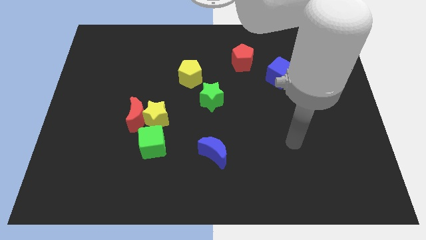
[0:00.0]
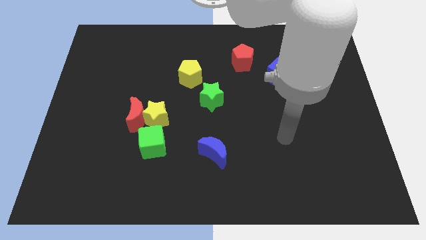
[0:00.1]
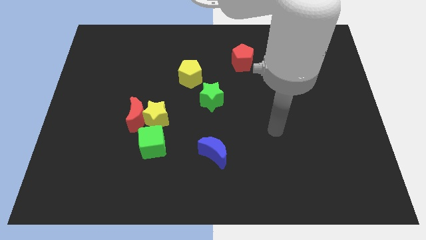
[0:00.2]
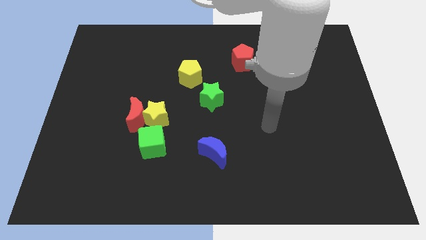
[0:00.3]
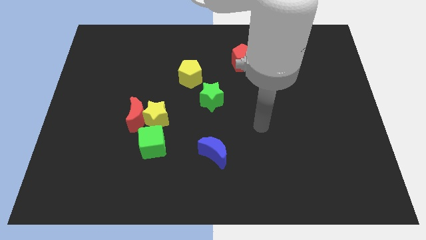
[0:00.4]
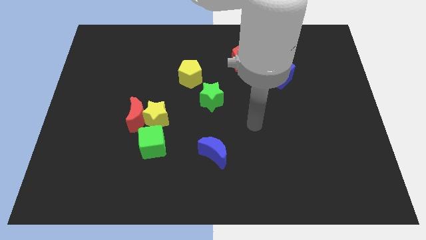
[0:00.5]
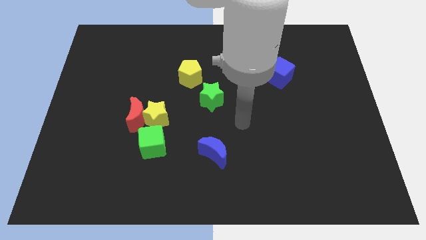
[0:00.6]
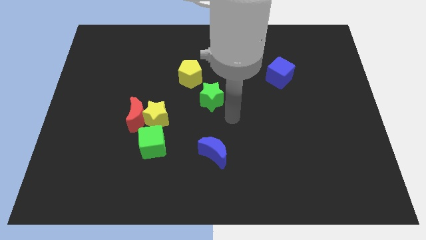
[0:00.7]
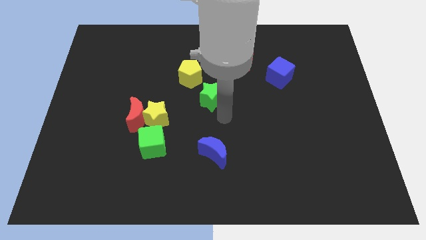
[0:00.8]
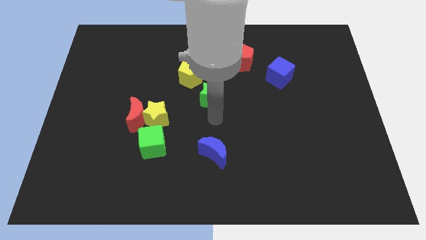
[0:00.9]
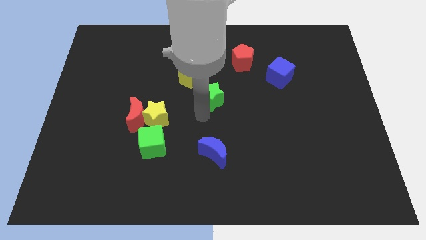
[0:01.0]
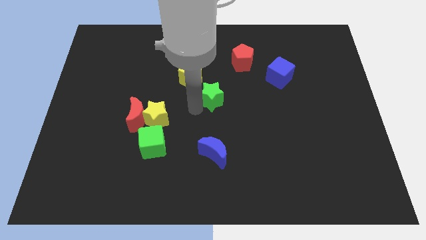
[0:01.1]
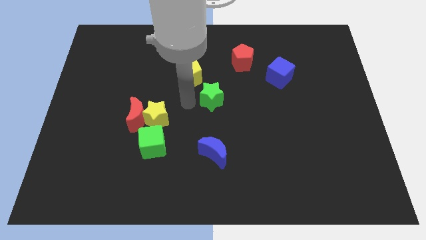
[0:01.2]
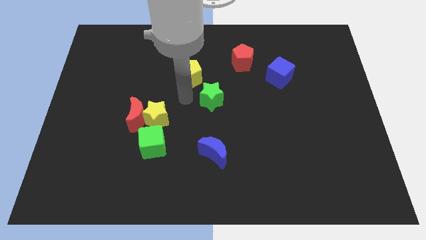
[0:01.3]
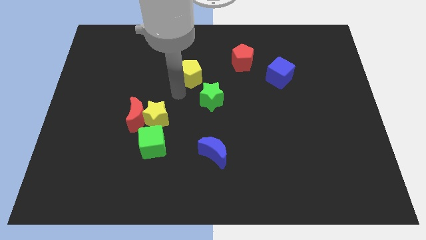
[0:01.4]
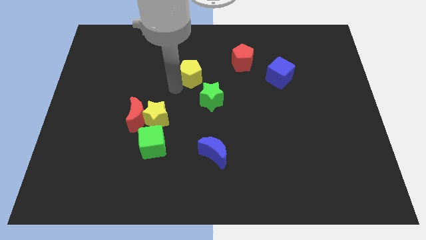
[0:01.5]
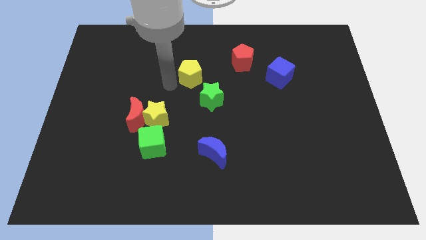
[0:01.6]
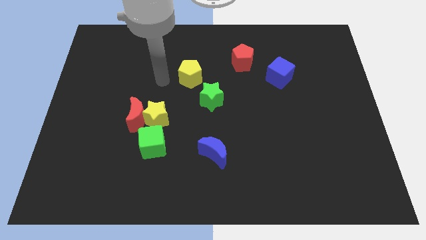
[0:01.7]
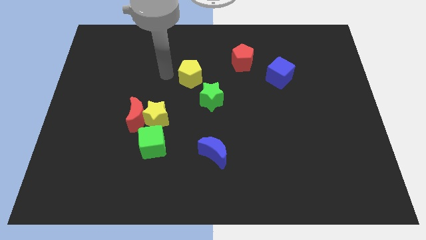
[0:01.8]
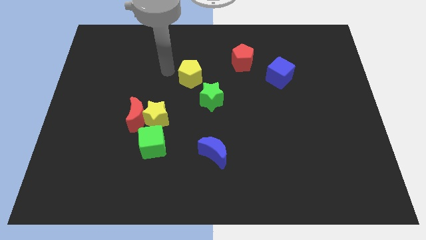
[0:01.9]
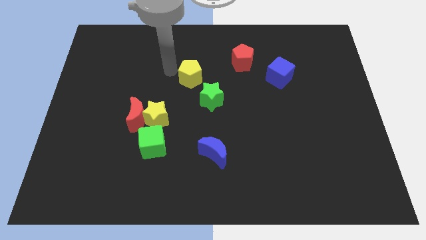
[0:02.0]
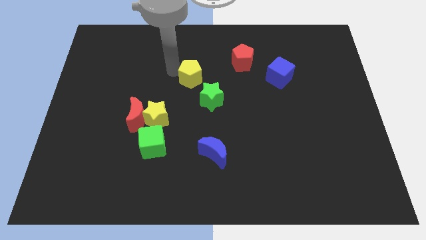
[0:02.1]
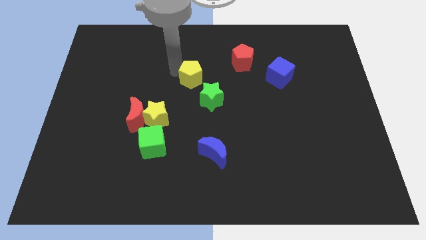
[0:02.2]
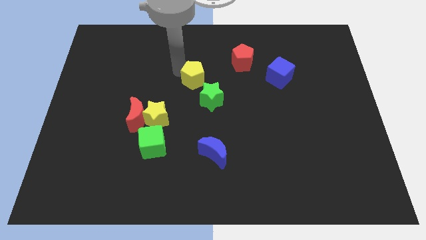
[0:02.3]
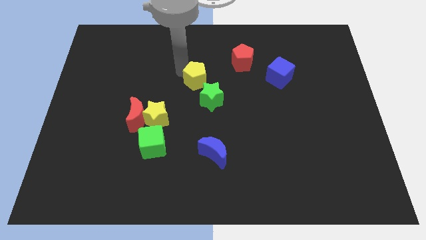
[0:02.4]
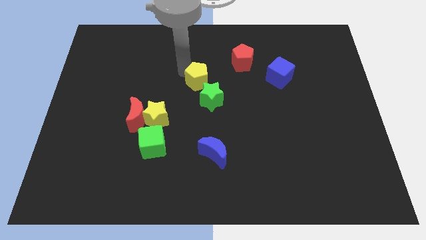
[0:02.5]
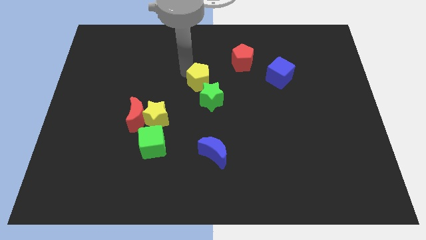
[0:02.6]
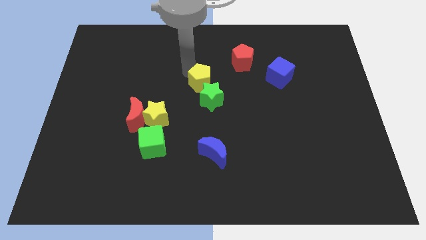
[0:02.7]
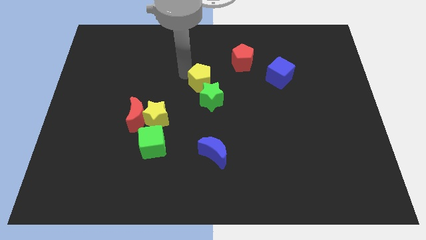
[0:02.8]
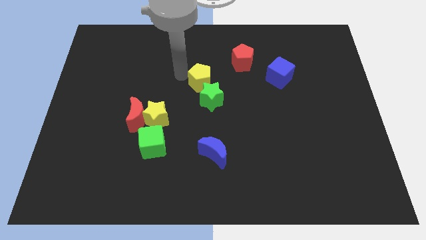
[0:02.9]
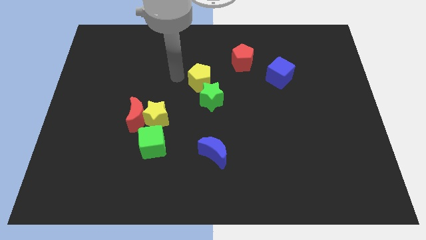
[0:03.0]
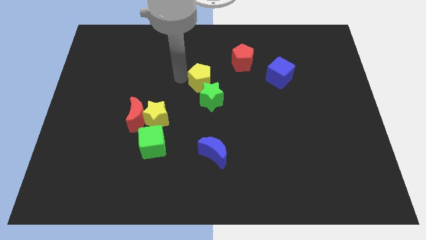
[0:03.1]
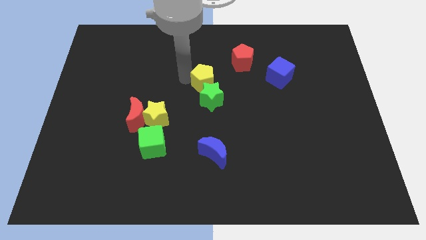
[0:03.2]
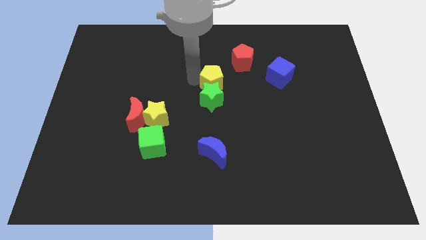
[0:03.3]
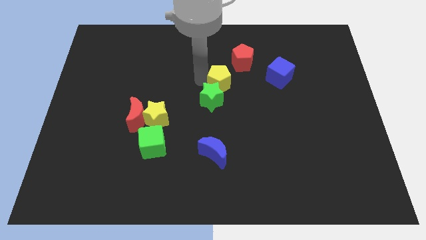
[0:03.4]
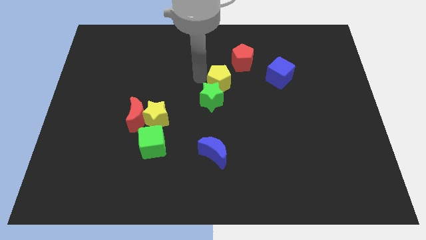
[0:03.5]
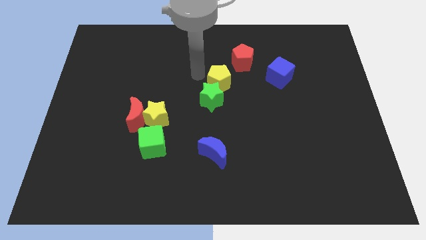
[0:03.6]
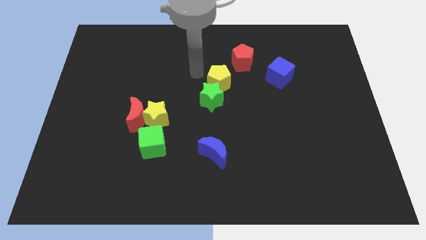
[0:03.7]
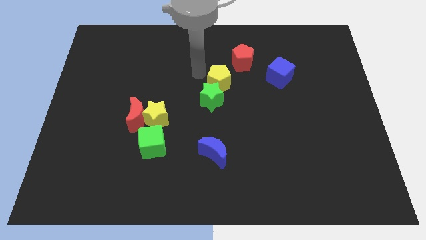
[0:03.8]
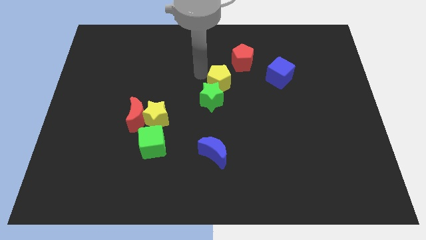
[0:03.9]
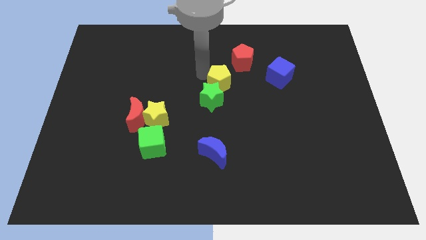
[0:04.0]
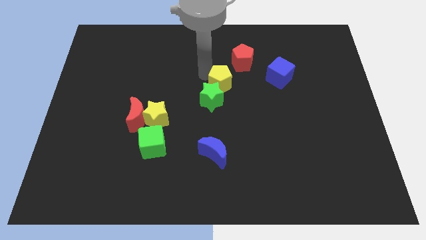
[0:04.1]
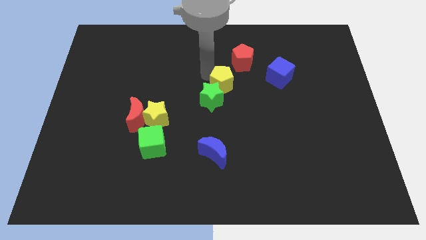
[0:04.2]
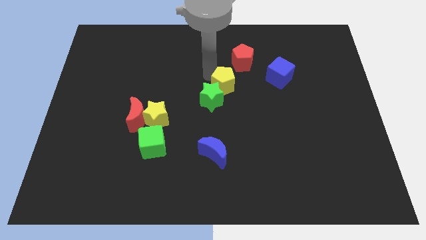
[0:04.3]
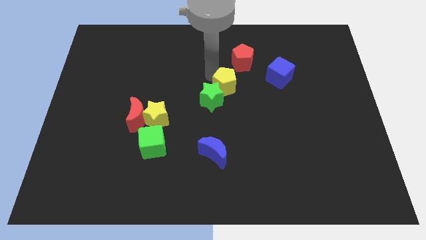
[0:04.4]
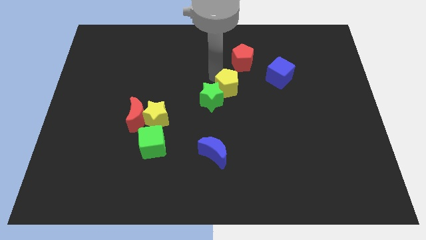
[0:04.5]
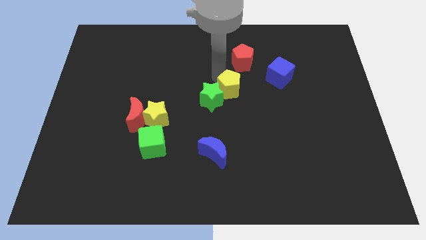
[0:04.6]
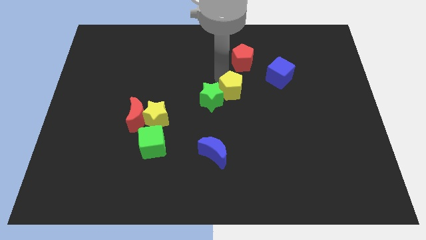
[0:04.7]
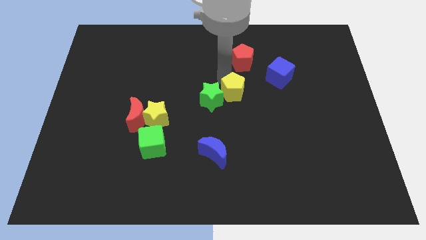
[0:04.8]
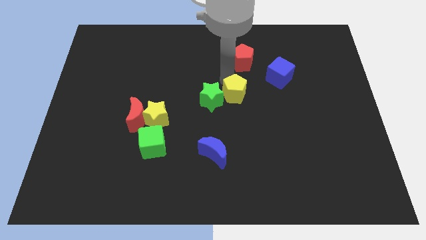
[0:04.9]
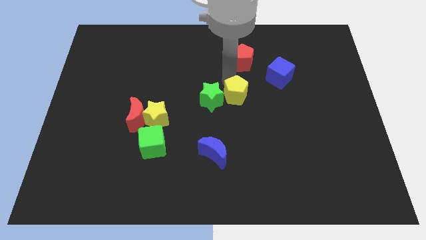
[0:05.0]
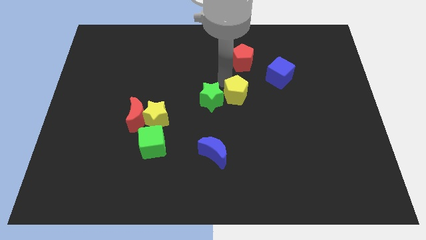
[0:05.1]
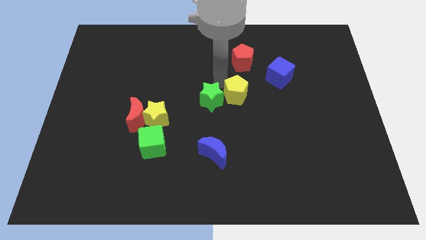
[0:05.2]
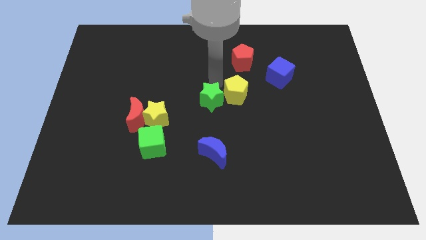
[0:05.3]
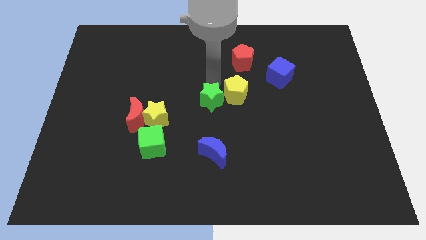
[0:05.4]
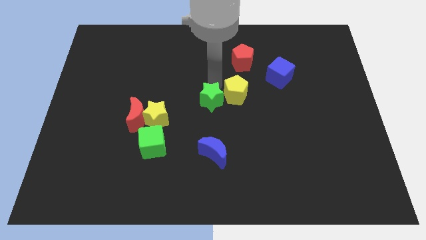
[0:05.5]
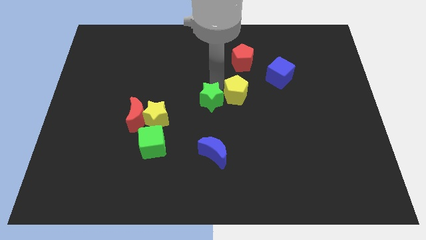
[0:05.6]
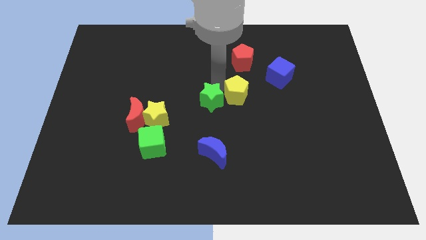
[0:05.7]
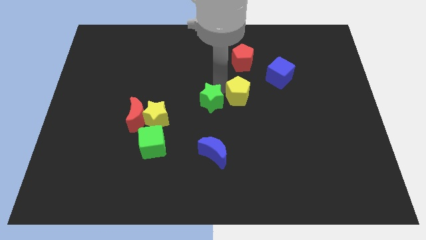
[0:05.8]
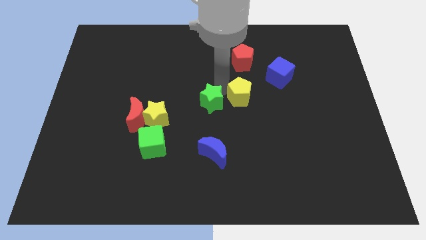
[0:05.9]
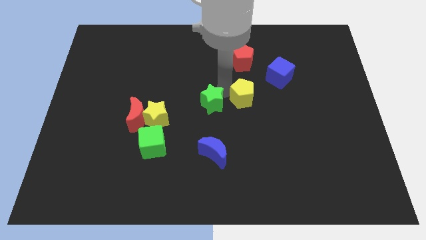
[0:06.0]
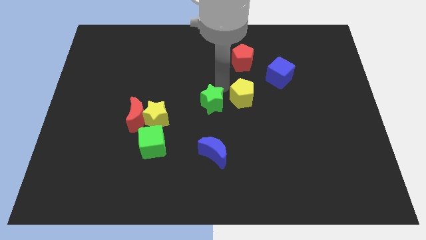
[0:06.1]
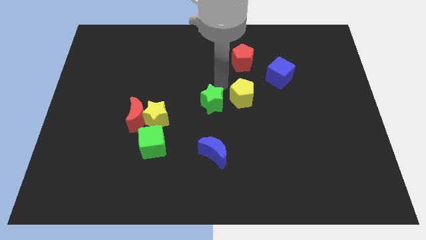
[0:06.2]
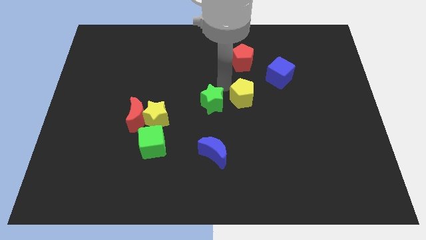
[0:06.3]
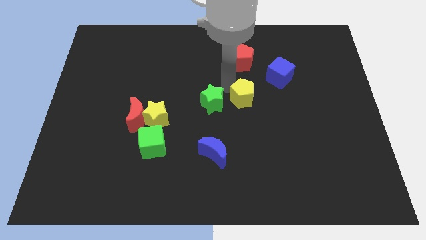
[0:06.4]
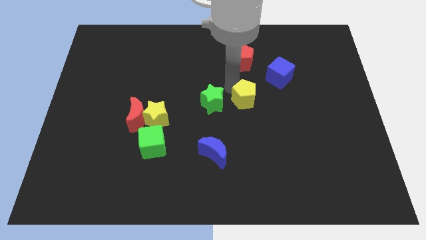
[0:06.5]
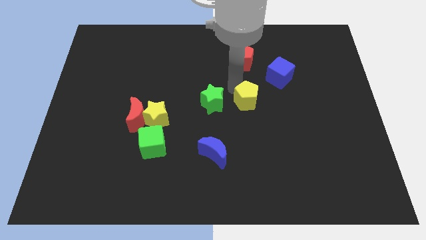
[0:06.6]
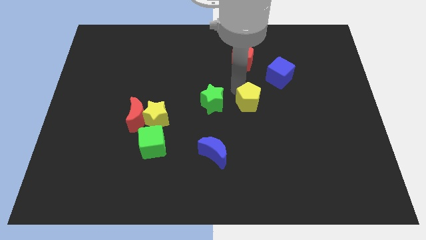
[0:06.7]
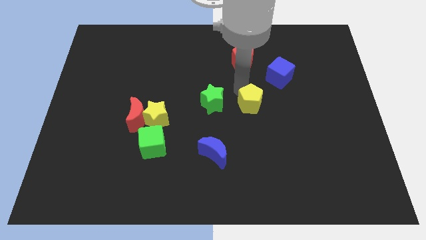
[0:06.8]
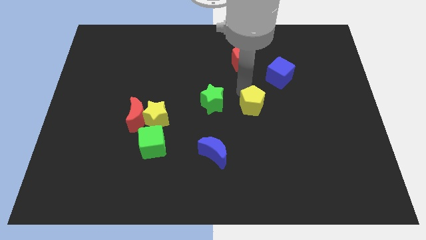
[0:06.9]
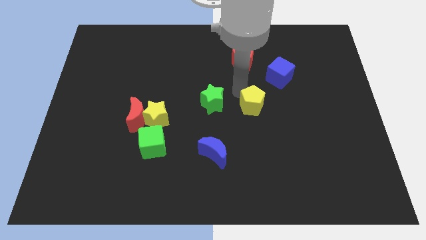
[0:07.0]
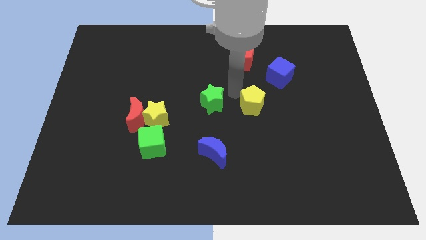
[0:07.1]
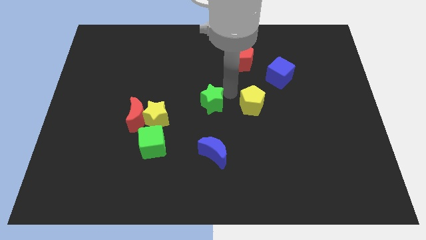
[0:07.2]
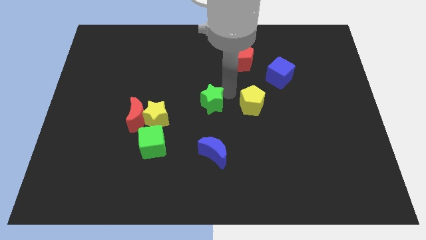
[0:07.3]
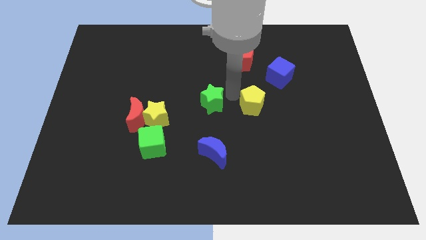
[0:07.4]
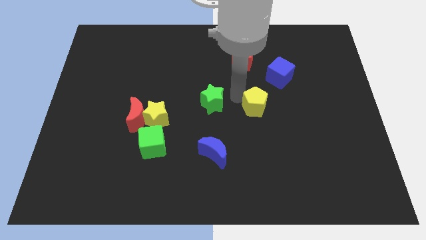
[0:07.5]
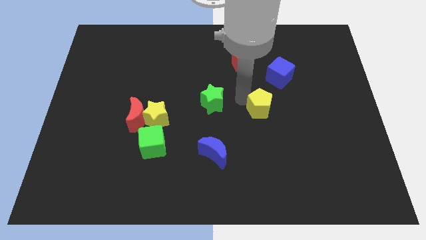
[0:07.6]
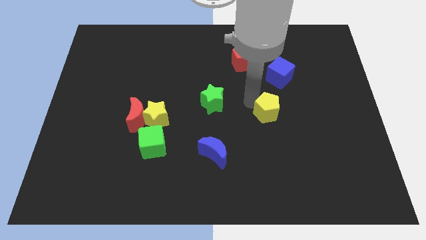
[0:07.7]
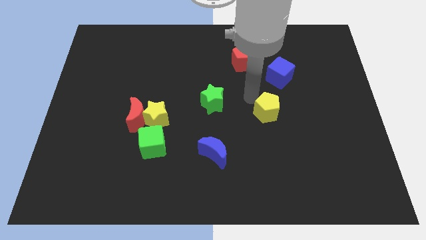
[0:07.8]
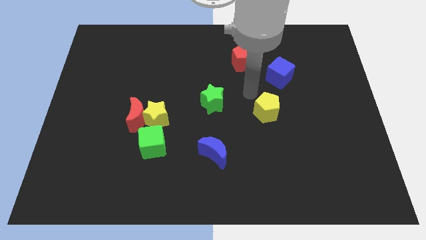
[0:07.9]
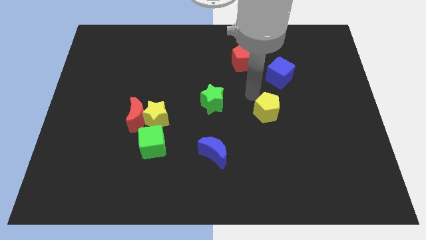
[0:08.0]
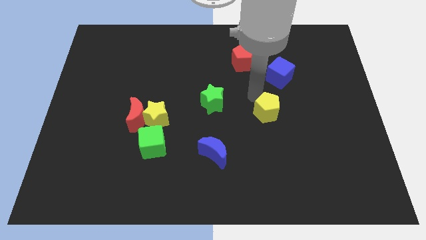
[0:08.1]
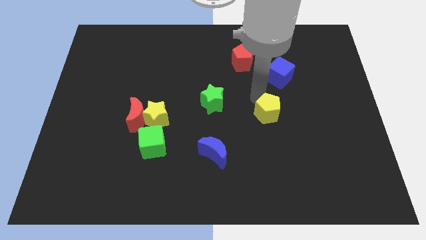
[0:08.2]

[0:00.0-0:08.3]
move the yellow pentagon downwards and to the right diagonally
